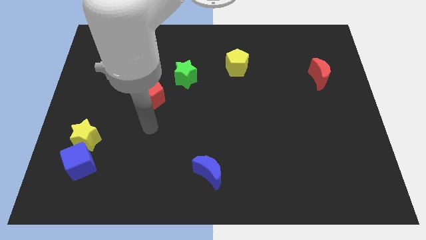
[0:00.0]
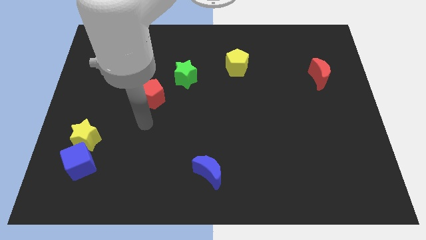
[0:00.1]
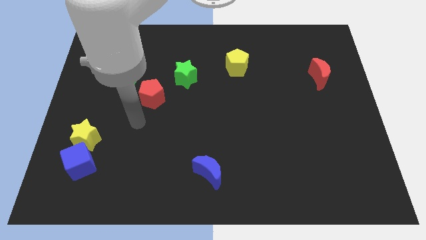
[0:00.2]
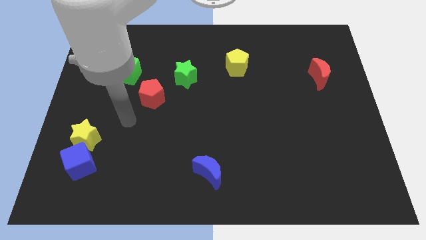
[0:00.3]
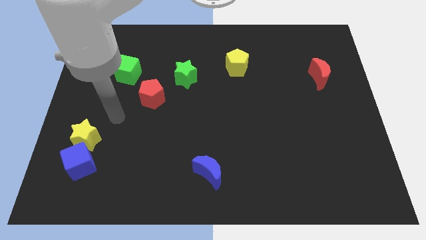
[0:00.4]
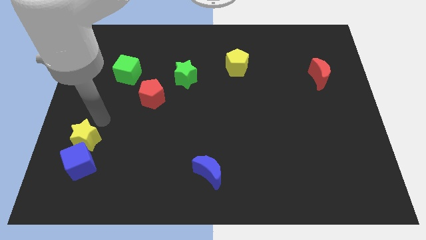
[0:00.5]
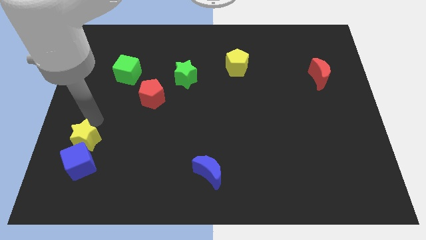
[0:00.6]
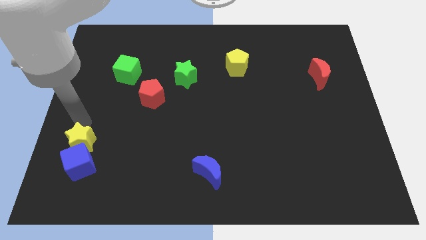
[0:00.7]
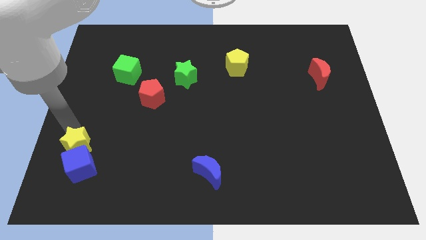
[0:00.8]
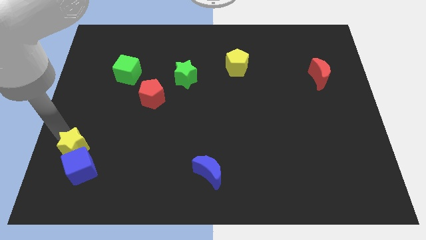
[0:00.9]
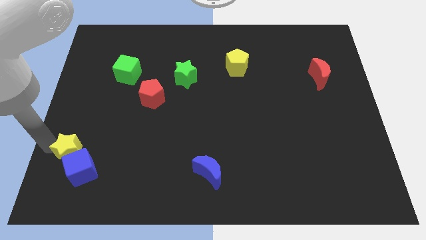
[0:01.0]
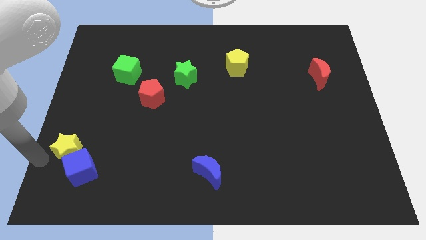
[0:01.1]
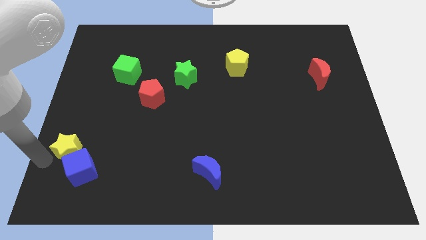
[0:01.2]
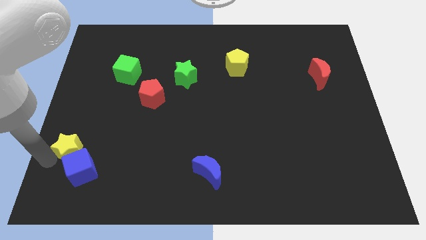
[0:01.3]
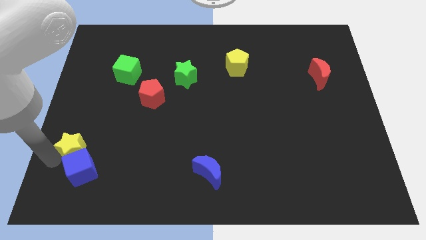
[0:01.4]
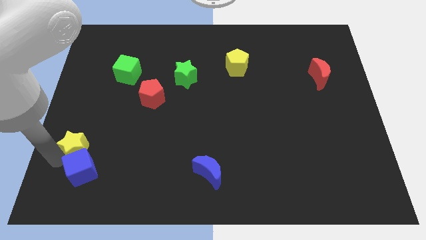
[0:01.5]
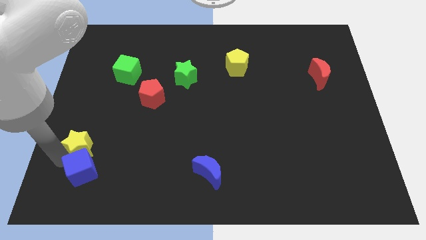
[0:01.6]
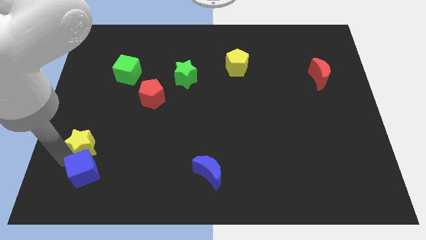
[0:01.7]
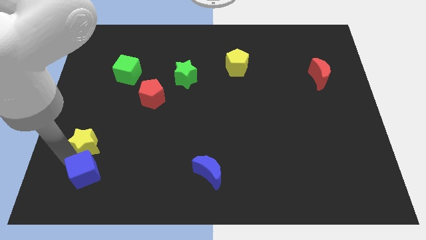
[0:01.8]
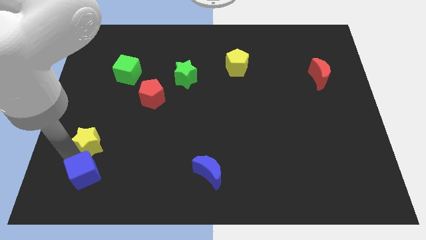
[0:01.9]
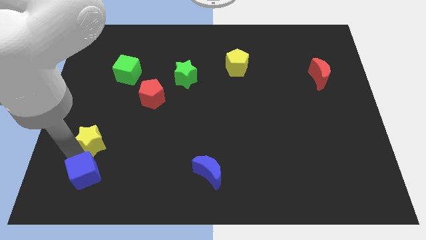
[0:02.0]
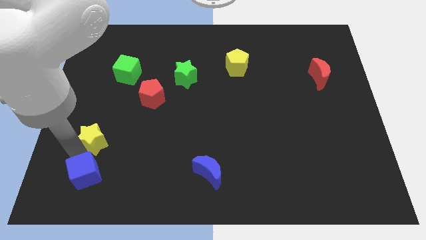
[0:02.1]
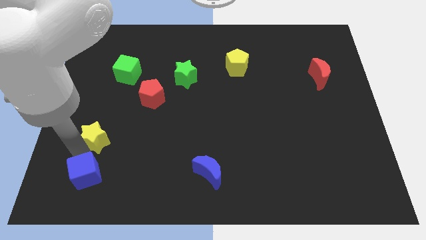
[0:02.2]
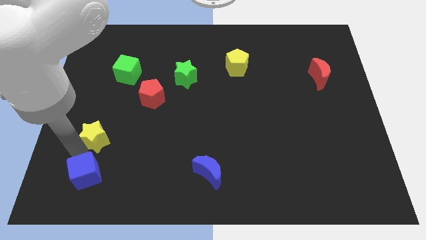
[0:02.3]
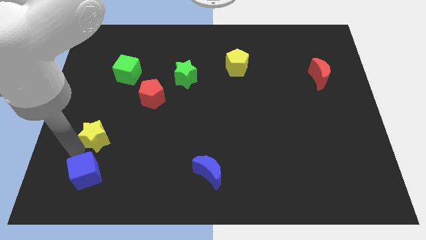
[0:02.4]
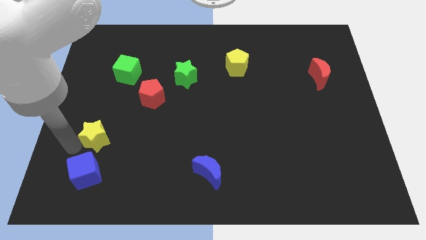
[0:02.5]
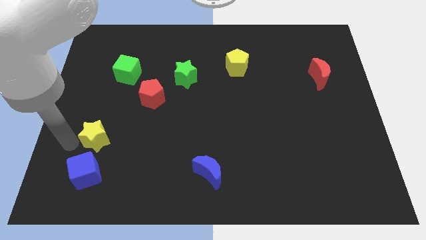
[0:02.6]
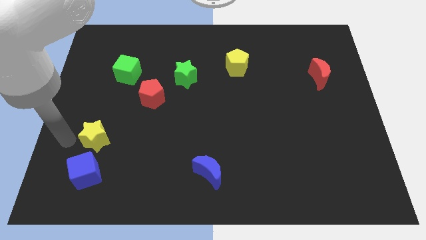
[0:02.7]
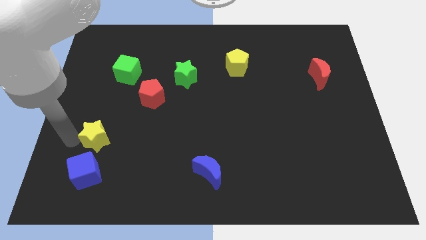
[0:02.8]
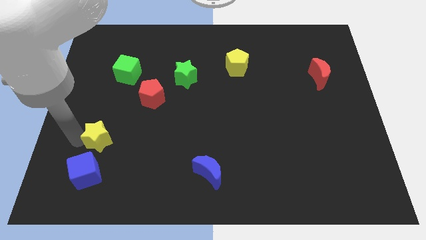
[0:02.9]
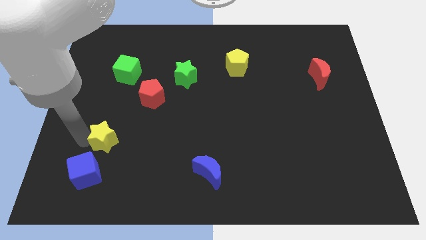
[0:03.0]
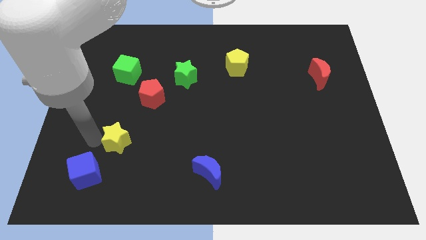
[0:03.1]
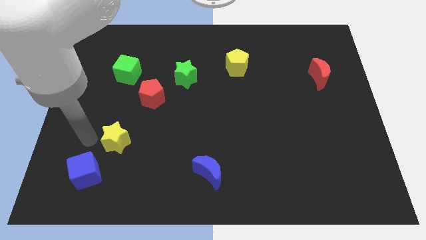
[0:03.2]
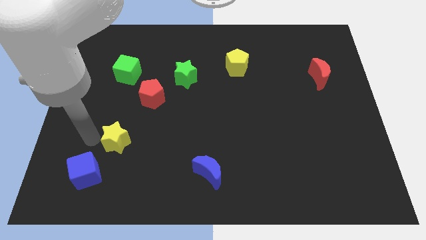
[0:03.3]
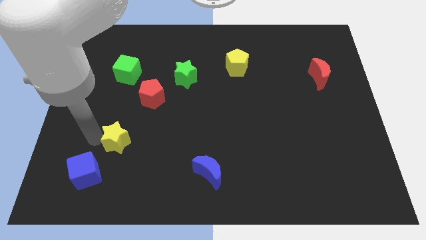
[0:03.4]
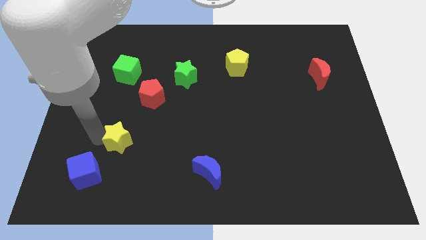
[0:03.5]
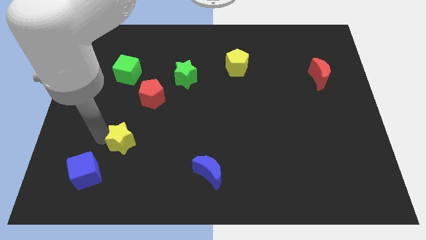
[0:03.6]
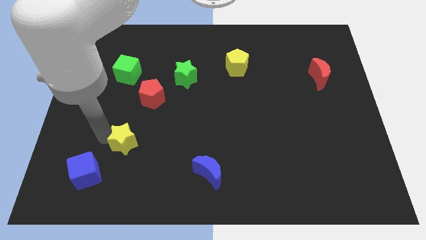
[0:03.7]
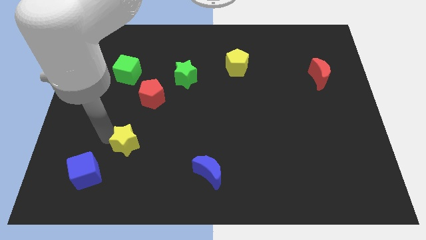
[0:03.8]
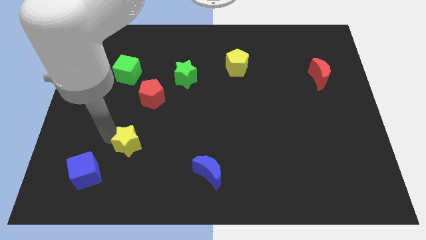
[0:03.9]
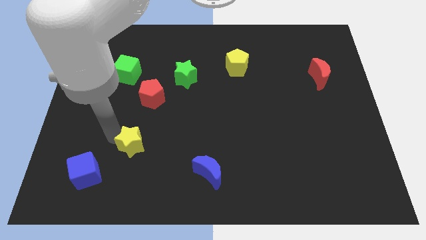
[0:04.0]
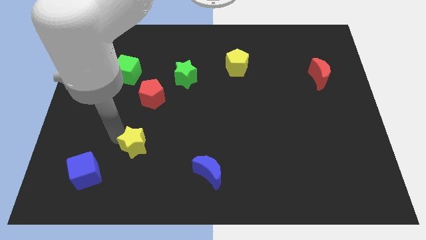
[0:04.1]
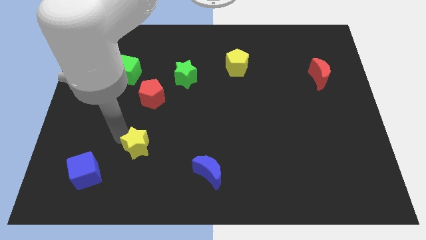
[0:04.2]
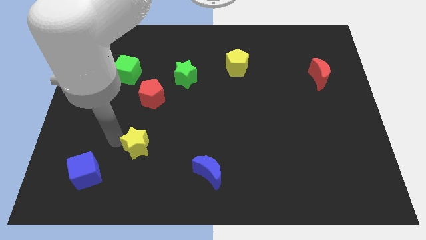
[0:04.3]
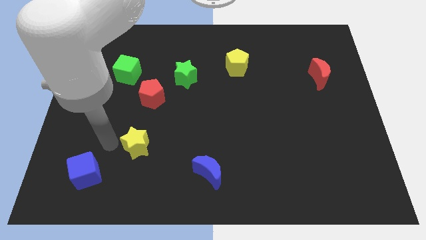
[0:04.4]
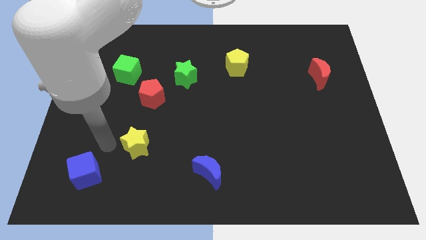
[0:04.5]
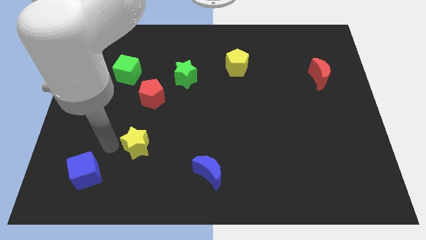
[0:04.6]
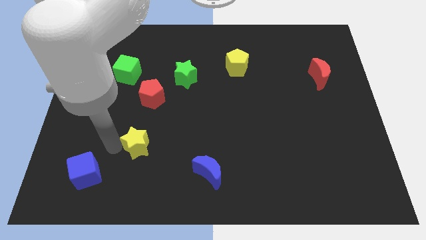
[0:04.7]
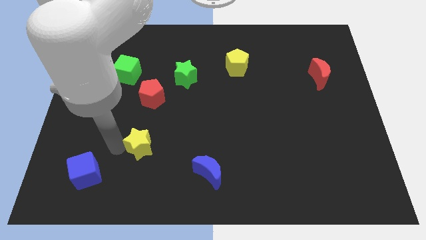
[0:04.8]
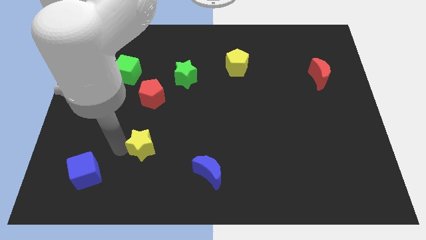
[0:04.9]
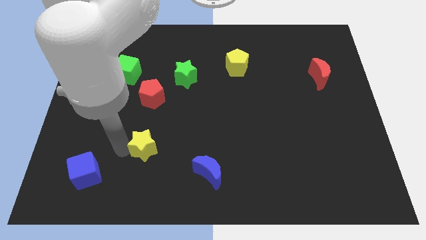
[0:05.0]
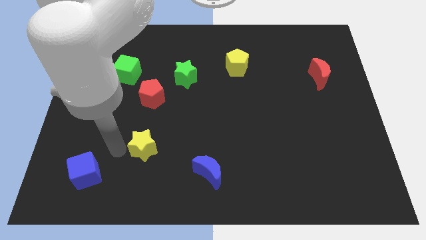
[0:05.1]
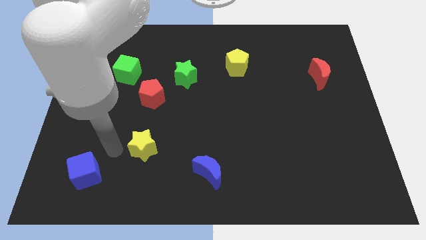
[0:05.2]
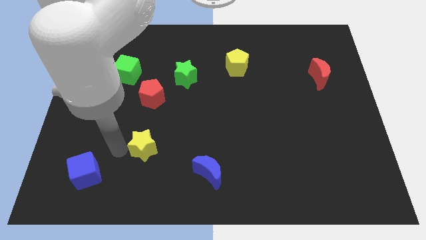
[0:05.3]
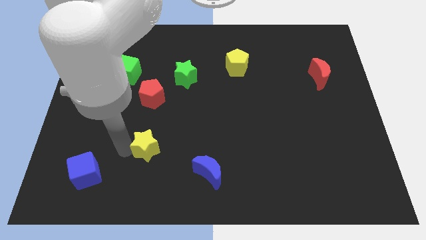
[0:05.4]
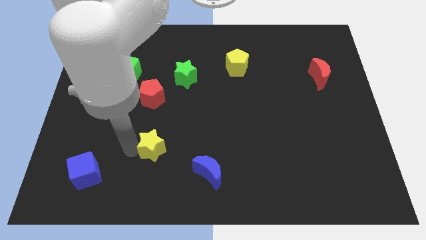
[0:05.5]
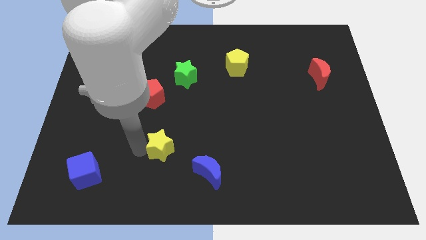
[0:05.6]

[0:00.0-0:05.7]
slide the yellow star diagonally up and to the left of the blue moon

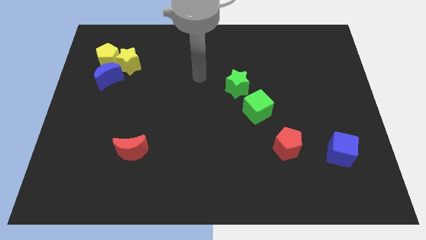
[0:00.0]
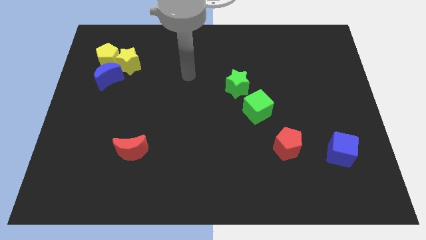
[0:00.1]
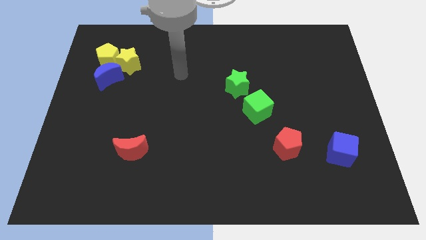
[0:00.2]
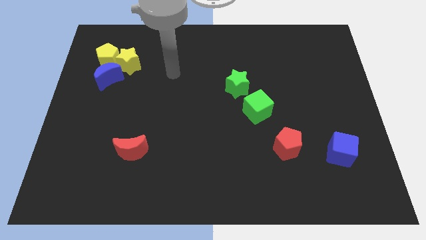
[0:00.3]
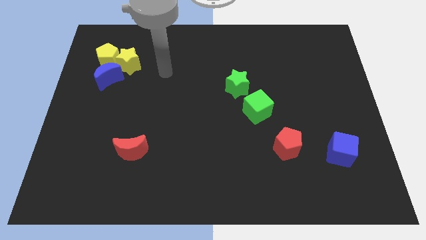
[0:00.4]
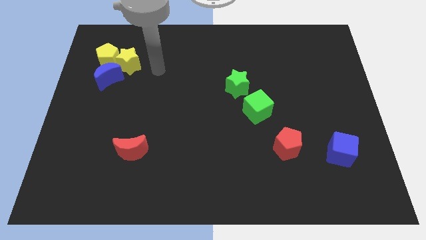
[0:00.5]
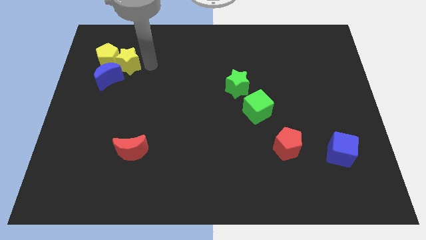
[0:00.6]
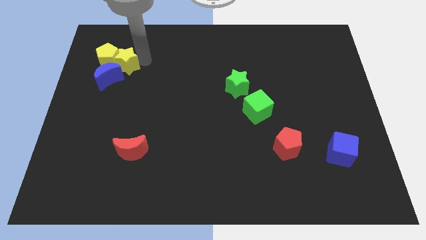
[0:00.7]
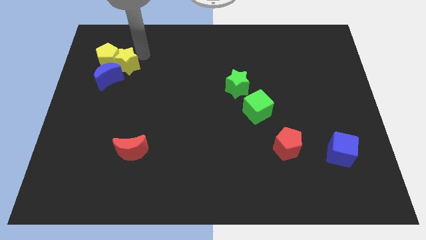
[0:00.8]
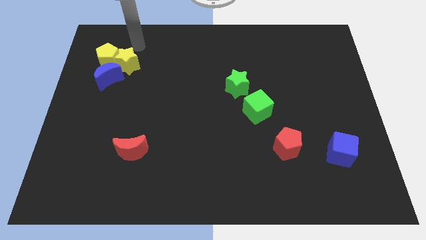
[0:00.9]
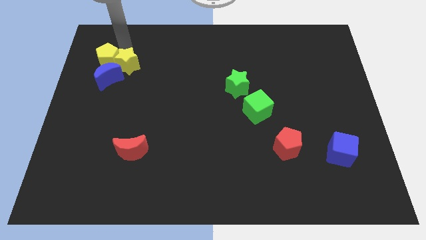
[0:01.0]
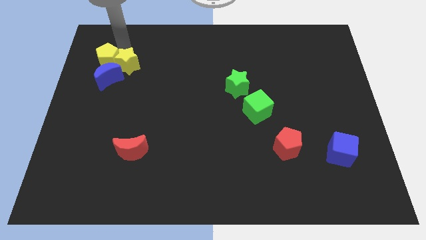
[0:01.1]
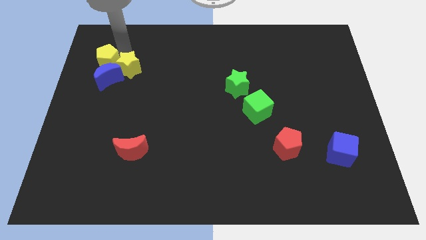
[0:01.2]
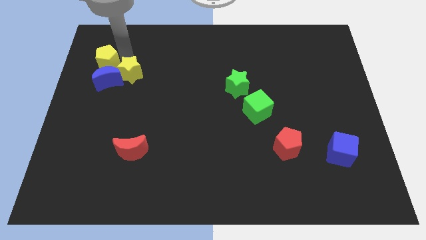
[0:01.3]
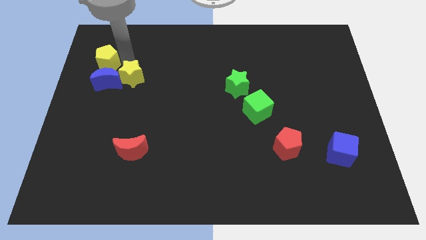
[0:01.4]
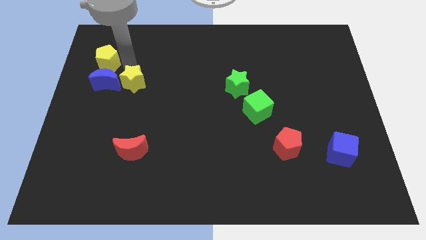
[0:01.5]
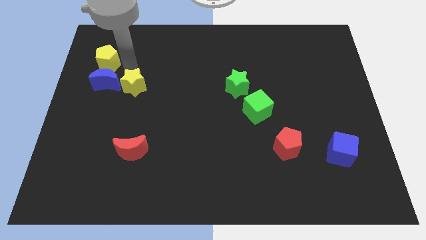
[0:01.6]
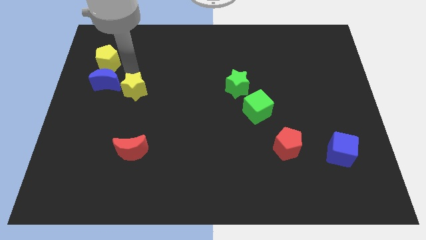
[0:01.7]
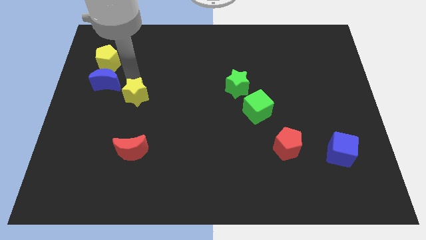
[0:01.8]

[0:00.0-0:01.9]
push the yellow star above the red moon
